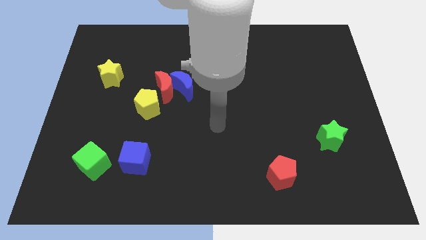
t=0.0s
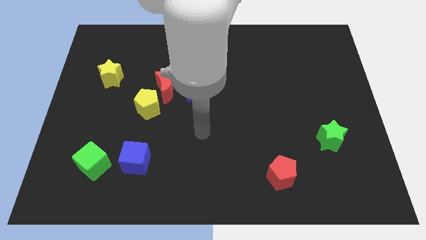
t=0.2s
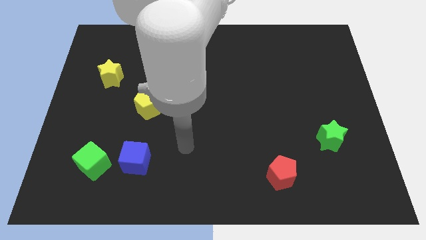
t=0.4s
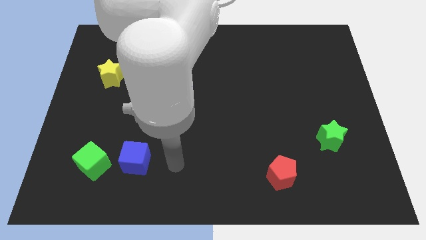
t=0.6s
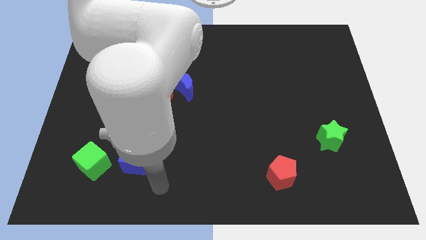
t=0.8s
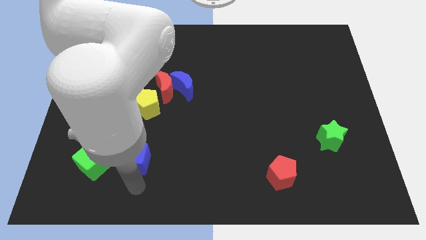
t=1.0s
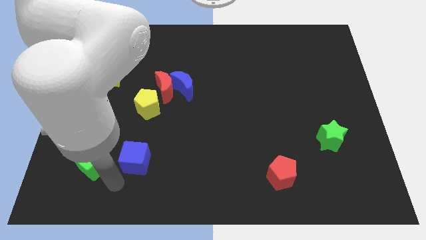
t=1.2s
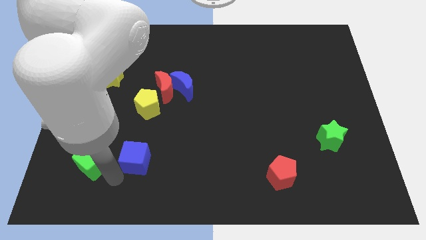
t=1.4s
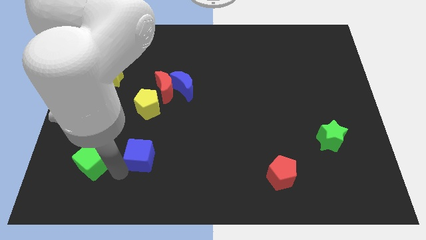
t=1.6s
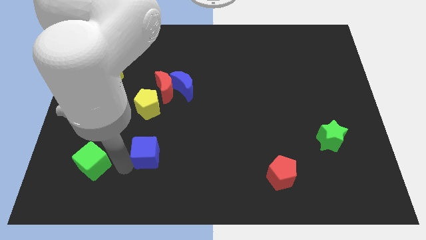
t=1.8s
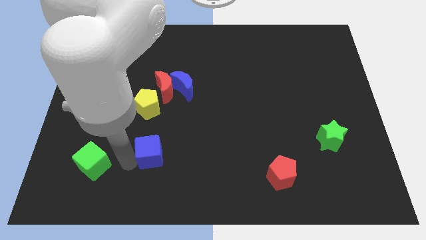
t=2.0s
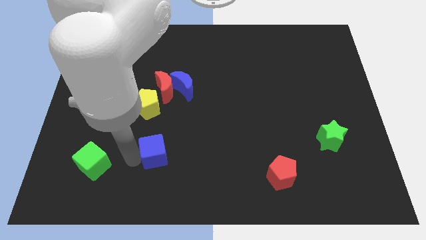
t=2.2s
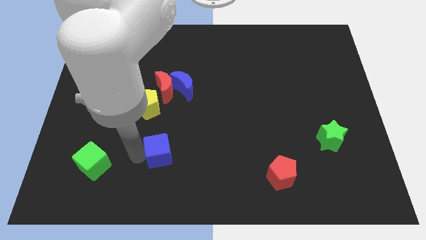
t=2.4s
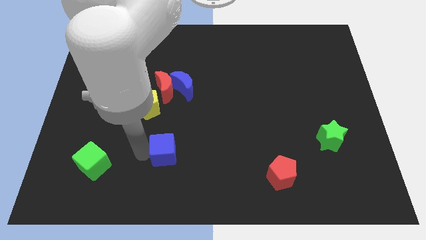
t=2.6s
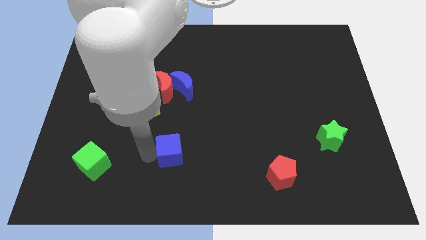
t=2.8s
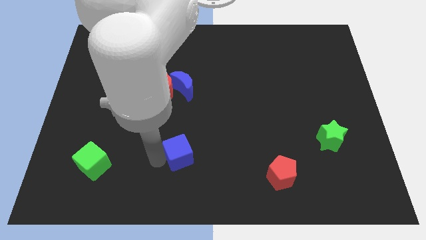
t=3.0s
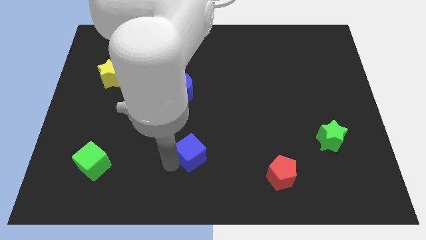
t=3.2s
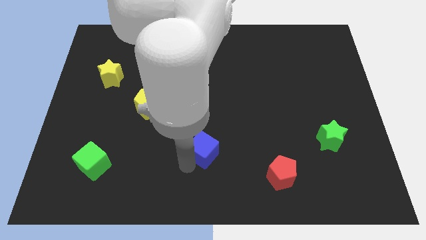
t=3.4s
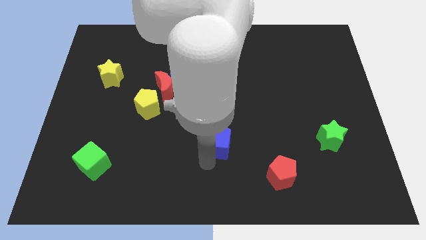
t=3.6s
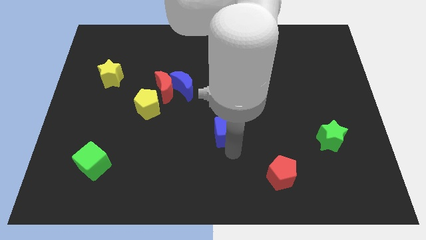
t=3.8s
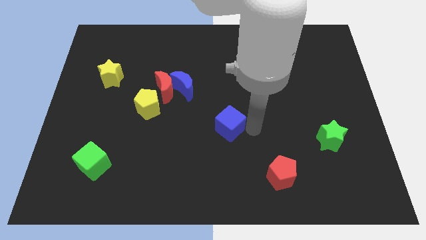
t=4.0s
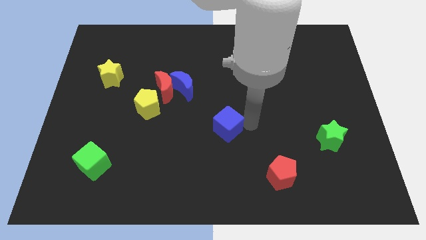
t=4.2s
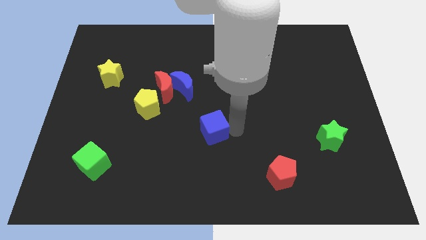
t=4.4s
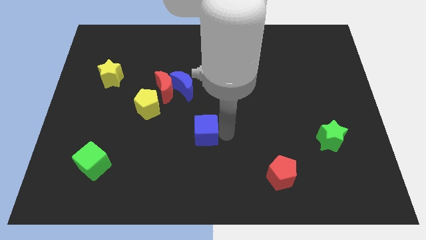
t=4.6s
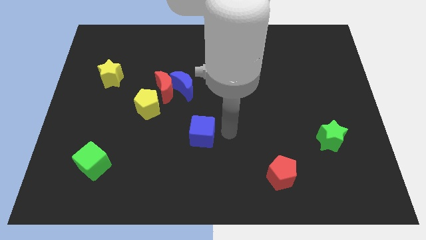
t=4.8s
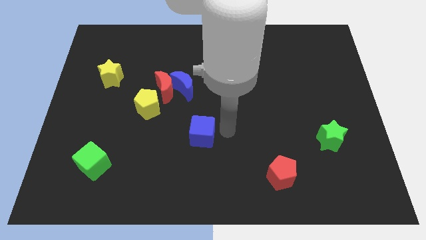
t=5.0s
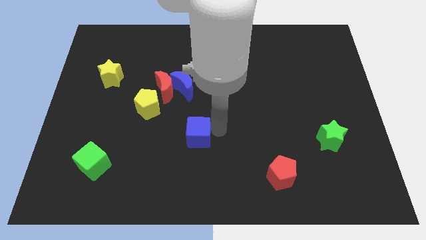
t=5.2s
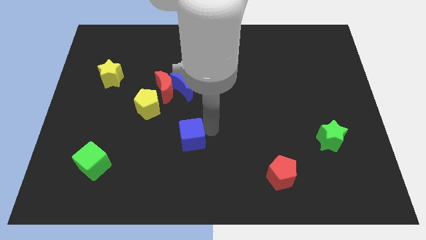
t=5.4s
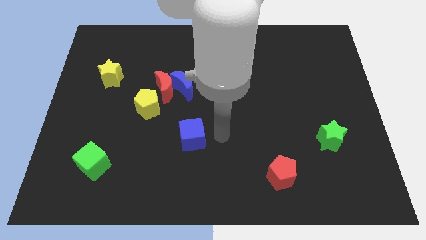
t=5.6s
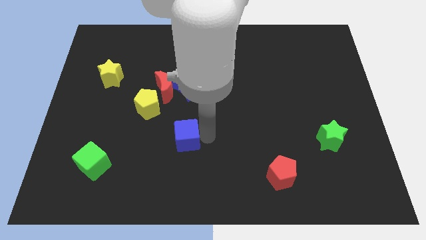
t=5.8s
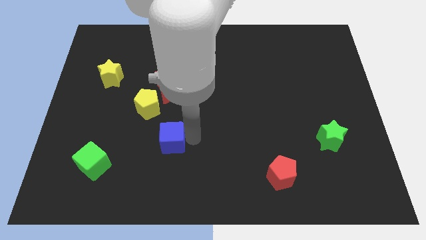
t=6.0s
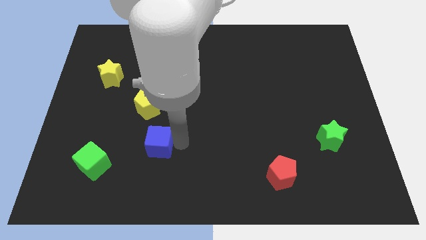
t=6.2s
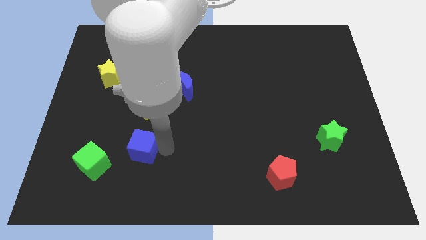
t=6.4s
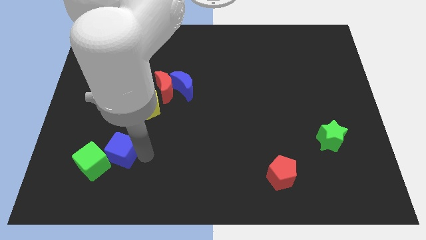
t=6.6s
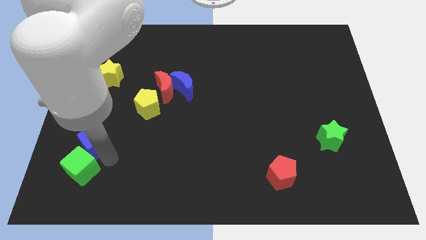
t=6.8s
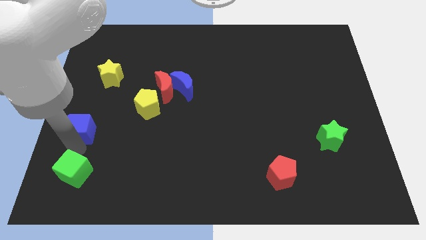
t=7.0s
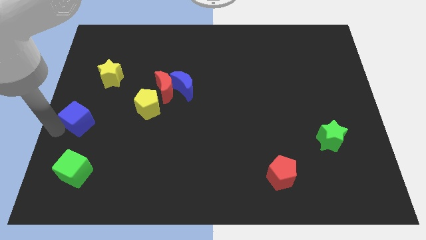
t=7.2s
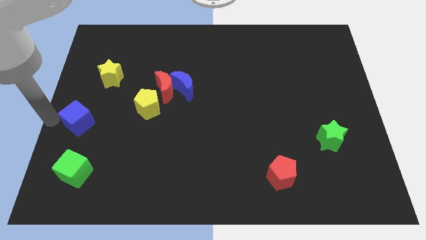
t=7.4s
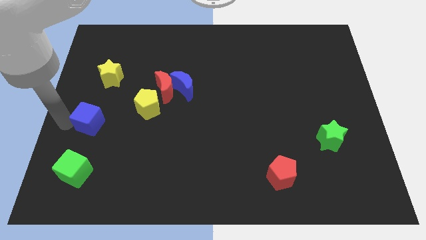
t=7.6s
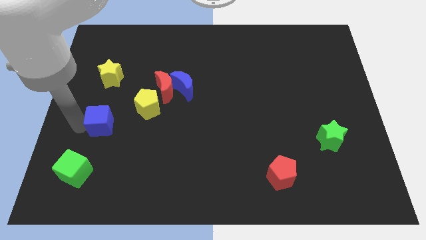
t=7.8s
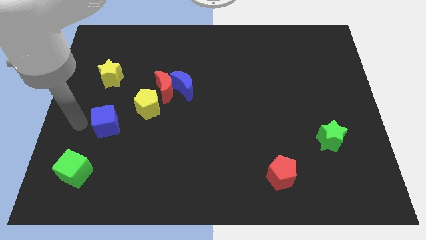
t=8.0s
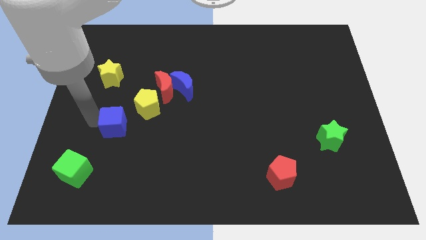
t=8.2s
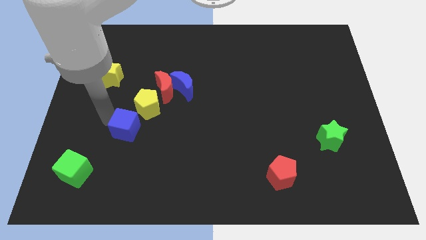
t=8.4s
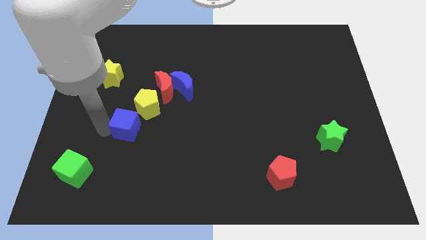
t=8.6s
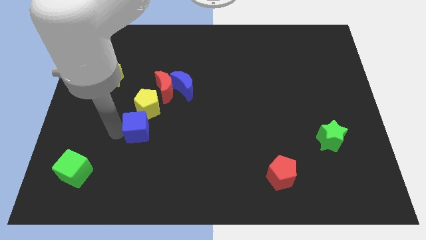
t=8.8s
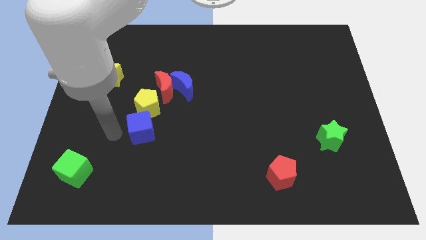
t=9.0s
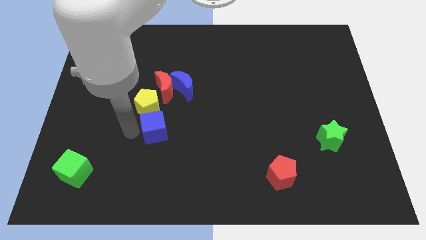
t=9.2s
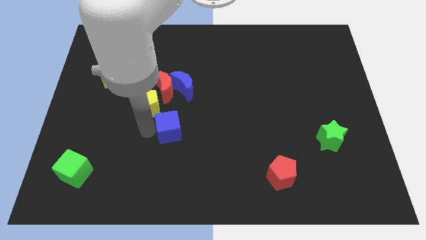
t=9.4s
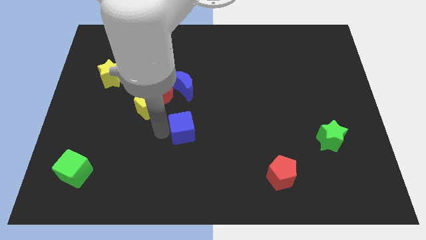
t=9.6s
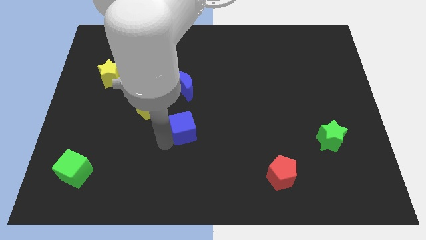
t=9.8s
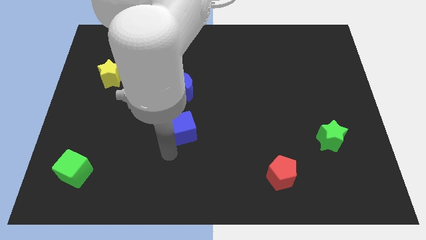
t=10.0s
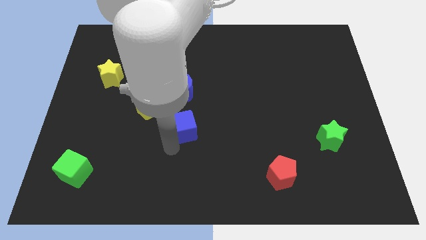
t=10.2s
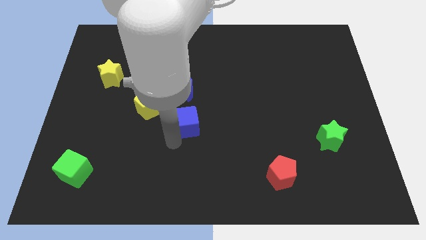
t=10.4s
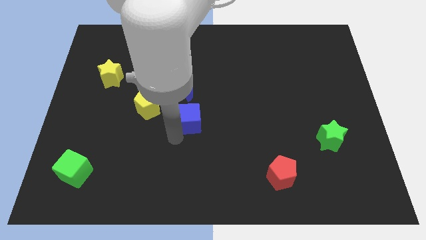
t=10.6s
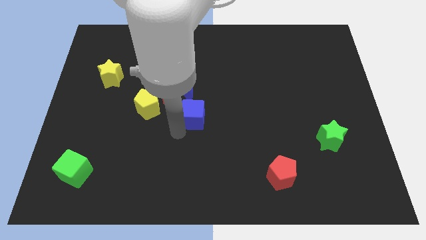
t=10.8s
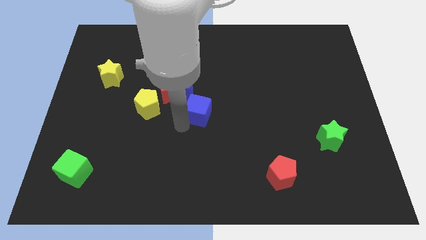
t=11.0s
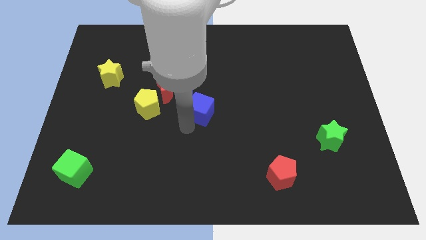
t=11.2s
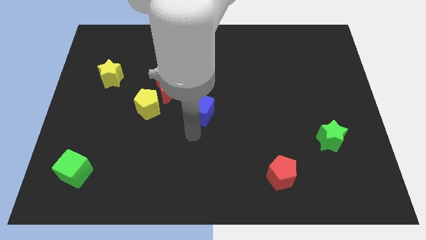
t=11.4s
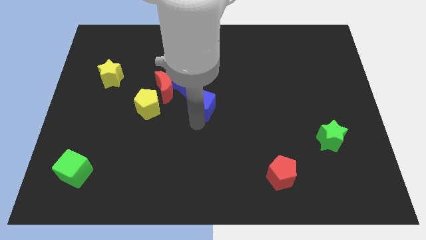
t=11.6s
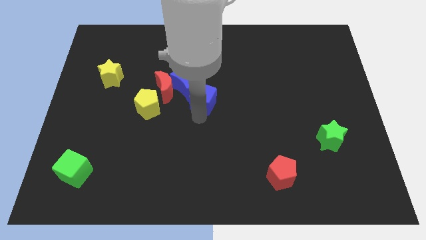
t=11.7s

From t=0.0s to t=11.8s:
slide the blue cube just right of the red moon

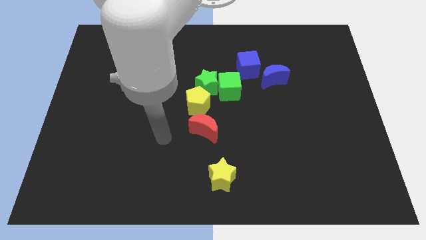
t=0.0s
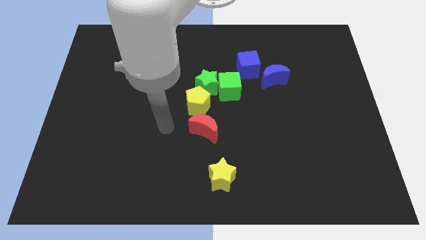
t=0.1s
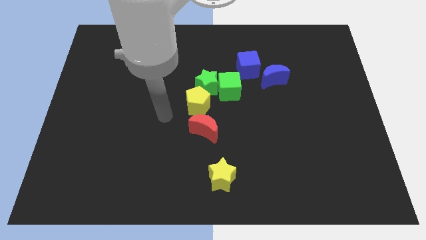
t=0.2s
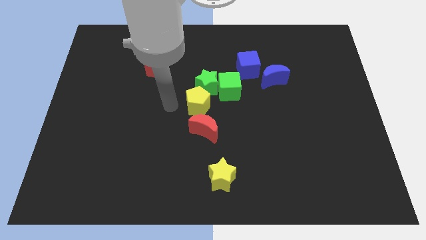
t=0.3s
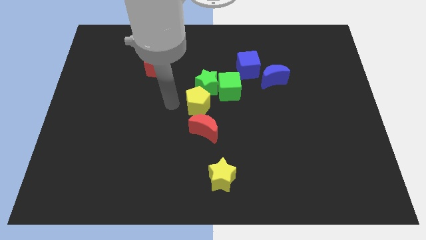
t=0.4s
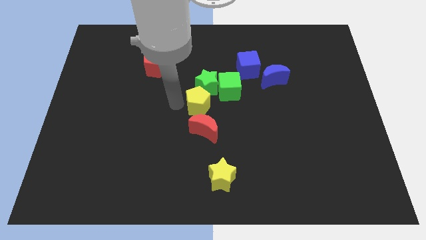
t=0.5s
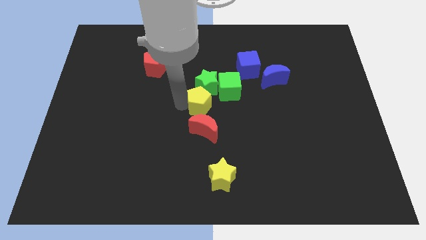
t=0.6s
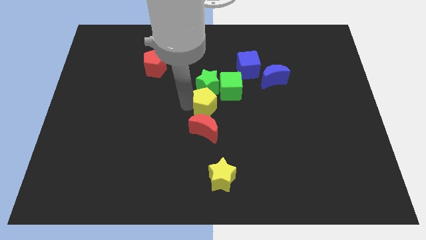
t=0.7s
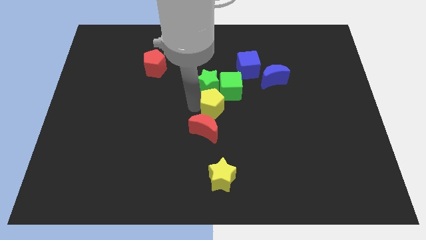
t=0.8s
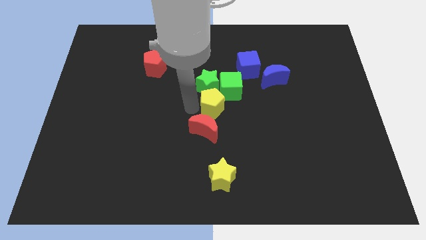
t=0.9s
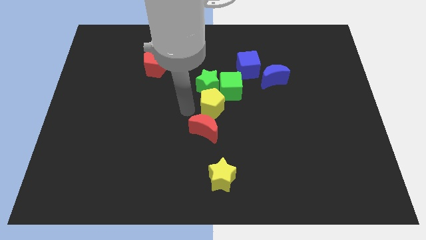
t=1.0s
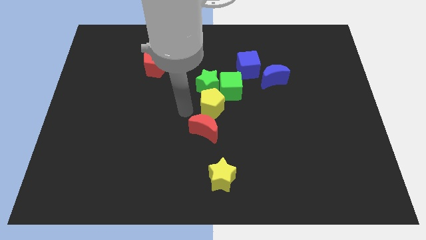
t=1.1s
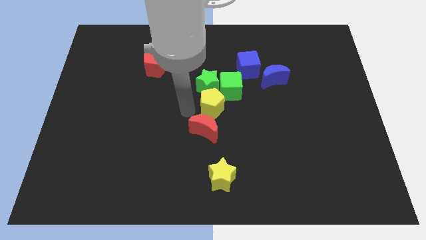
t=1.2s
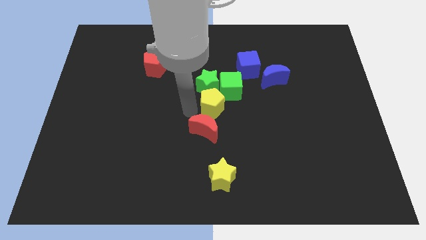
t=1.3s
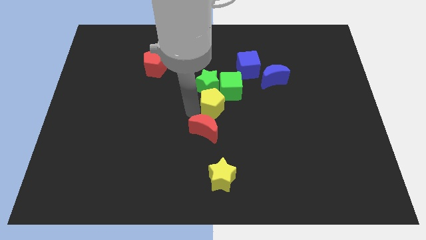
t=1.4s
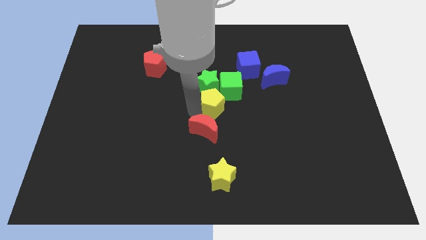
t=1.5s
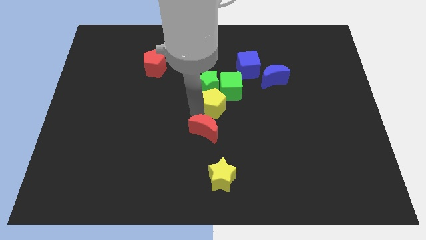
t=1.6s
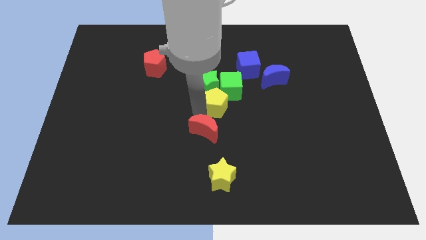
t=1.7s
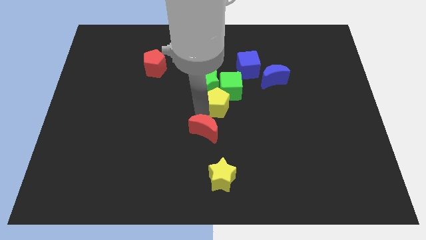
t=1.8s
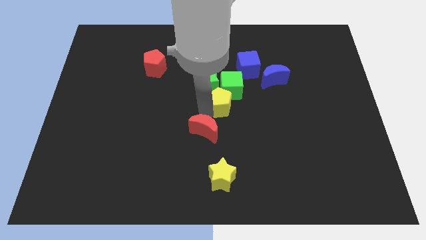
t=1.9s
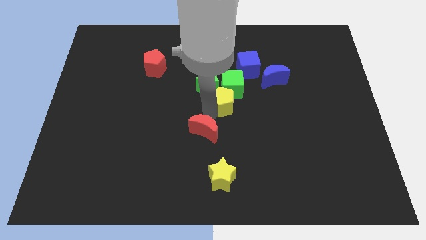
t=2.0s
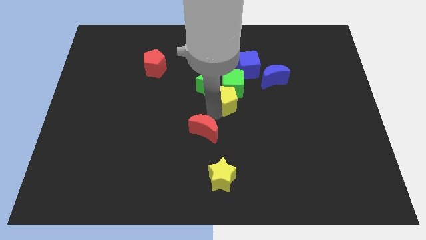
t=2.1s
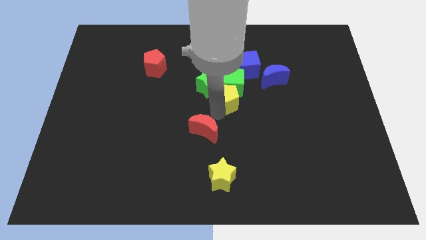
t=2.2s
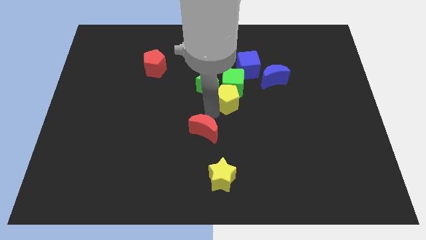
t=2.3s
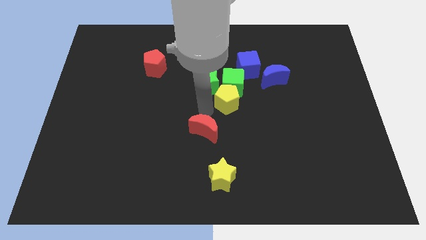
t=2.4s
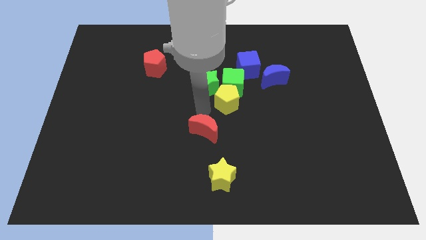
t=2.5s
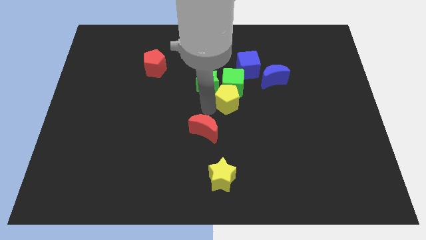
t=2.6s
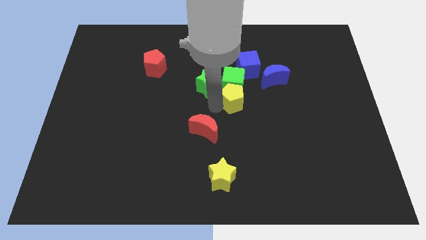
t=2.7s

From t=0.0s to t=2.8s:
put the yellow pentagon diagonally down and to the left of the blue moon
